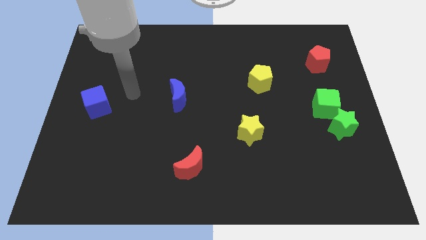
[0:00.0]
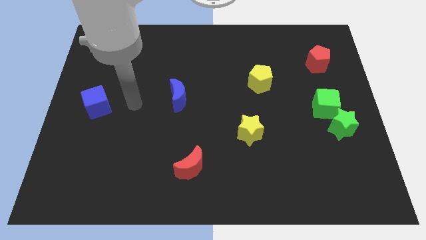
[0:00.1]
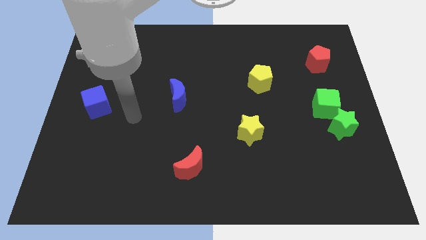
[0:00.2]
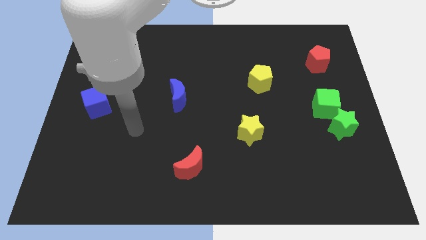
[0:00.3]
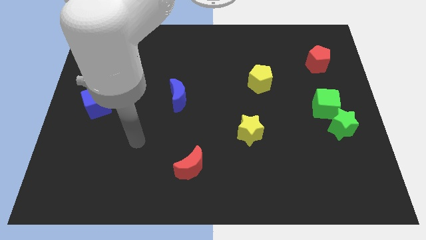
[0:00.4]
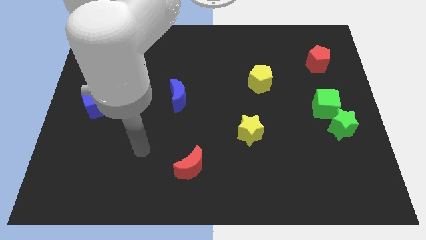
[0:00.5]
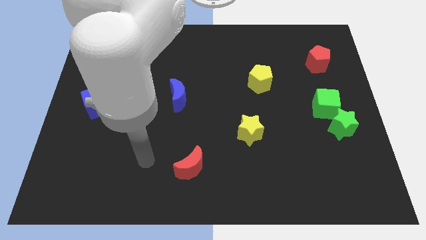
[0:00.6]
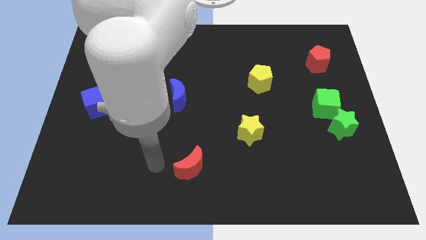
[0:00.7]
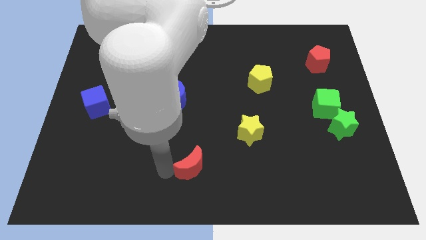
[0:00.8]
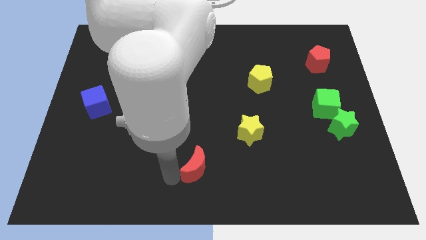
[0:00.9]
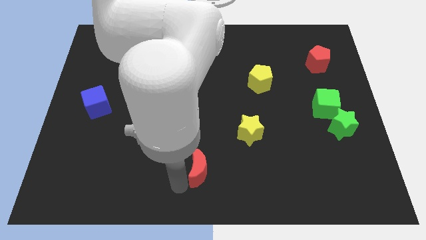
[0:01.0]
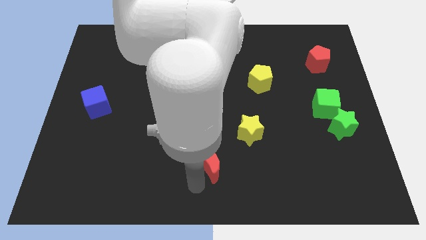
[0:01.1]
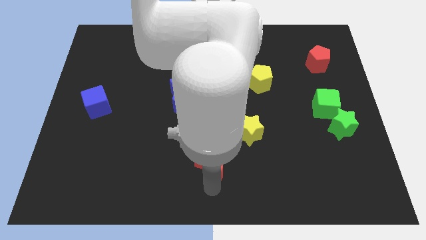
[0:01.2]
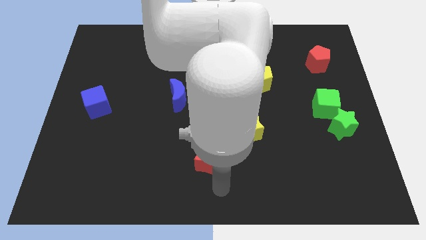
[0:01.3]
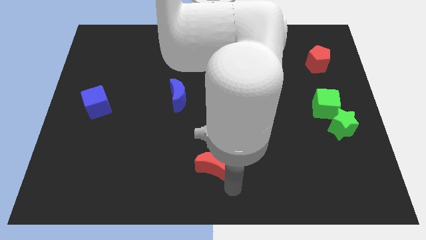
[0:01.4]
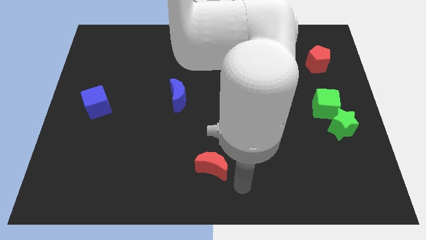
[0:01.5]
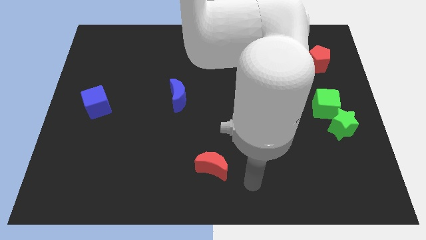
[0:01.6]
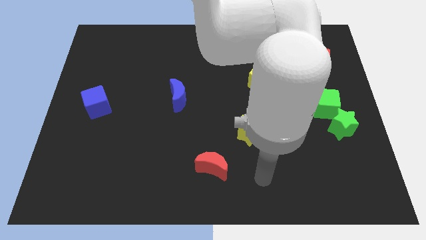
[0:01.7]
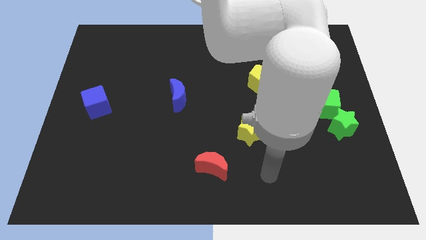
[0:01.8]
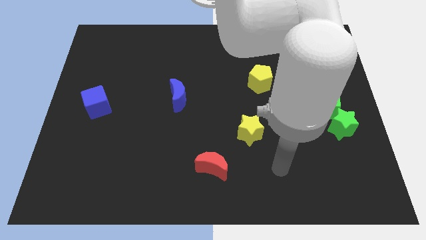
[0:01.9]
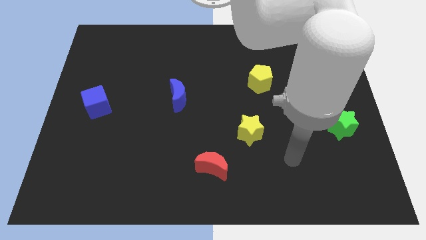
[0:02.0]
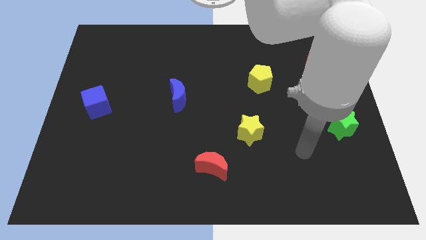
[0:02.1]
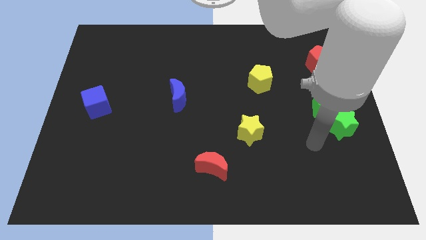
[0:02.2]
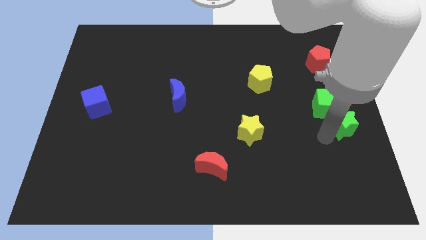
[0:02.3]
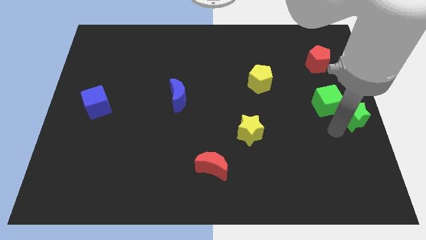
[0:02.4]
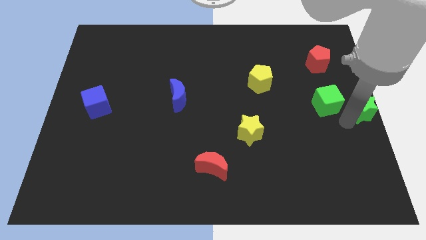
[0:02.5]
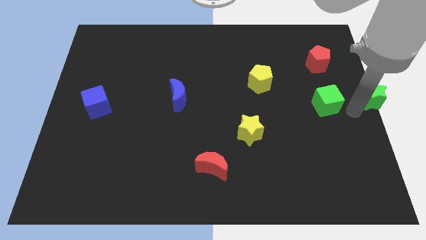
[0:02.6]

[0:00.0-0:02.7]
separate the green cube from the green star

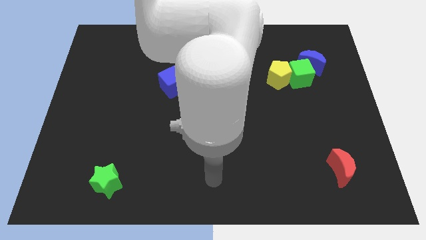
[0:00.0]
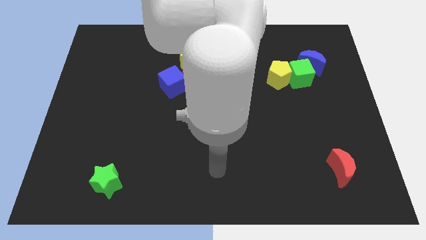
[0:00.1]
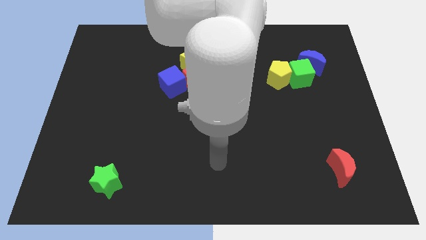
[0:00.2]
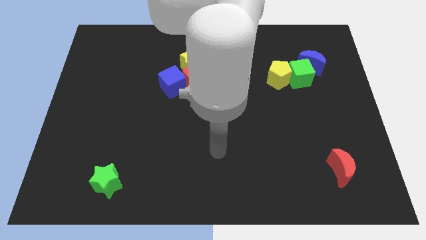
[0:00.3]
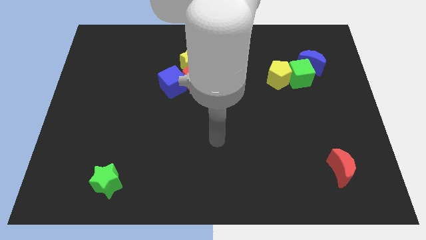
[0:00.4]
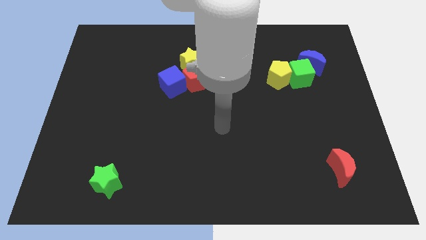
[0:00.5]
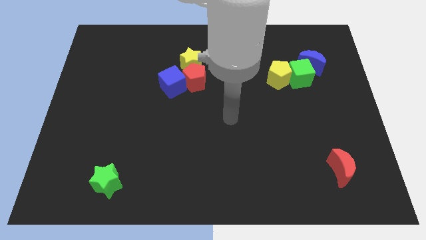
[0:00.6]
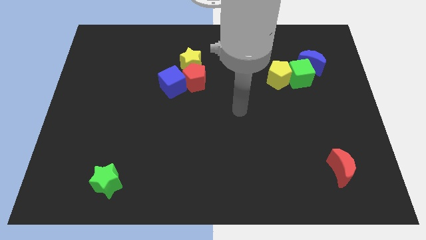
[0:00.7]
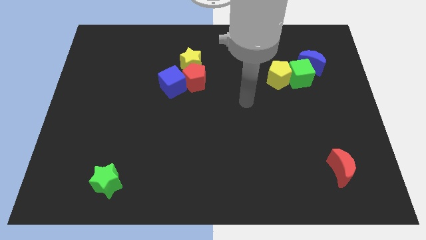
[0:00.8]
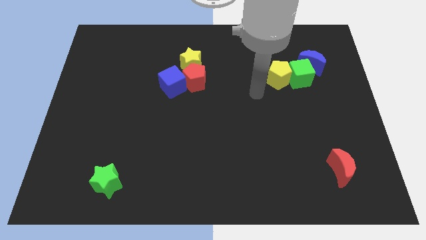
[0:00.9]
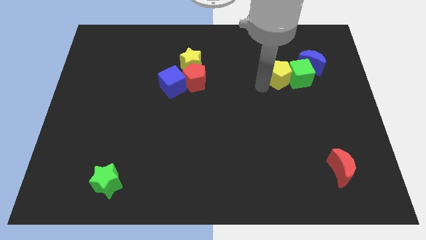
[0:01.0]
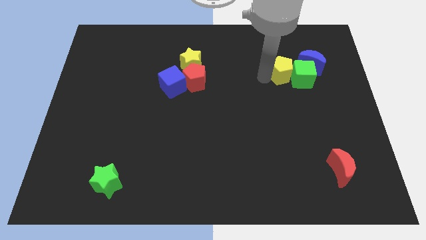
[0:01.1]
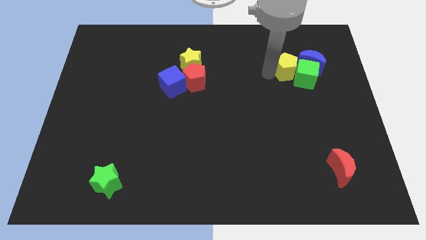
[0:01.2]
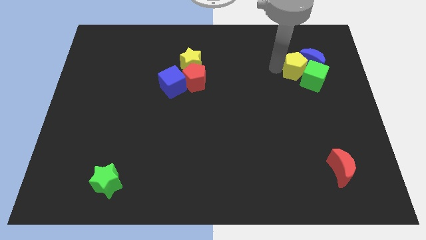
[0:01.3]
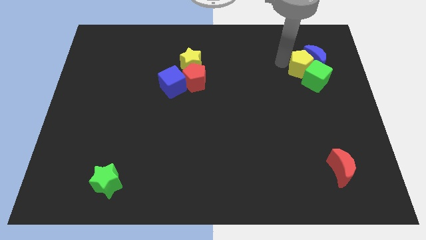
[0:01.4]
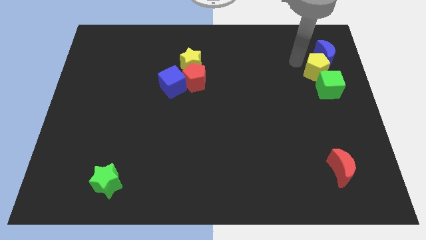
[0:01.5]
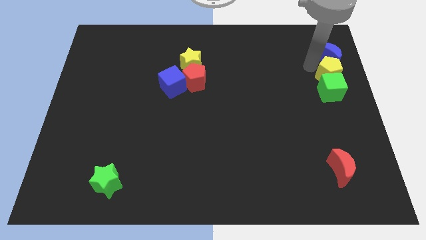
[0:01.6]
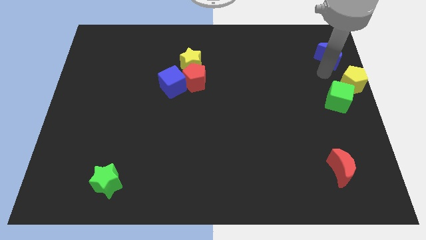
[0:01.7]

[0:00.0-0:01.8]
move the green cube away from the blue moon and yellow pentagon

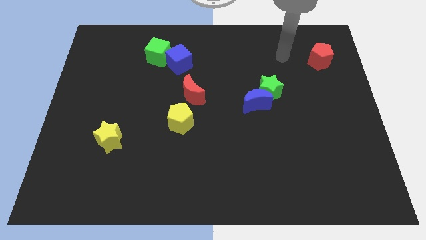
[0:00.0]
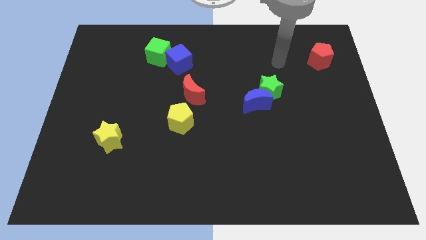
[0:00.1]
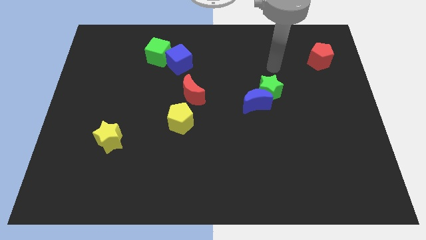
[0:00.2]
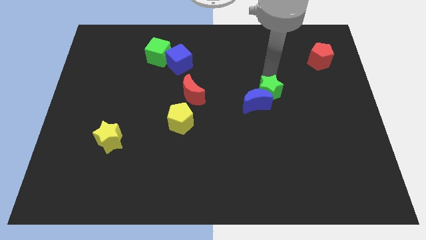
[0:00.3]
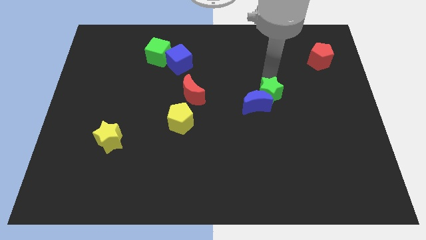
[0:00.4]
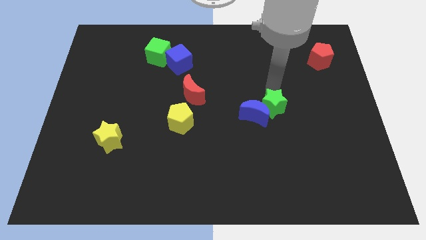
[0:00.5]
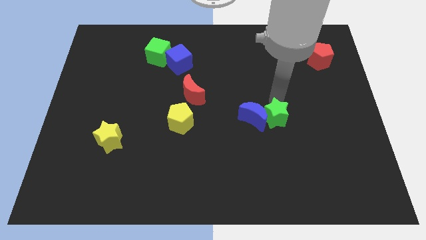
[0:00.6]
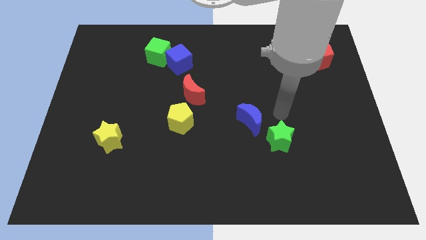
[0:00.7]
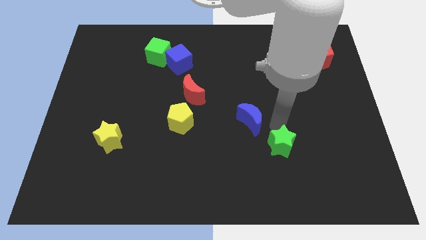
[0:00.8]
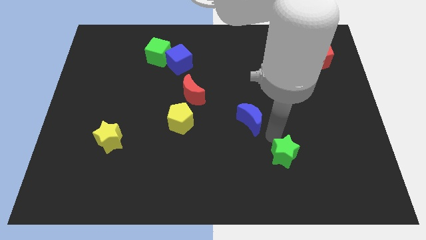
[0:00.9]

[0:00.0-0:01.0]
pull the blue moon apart from the green star

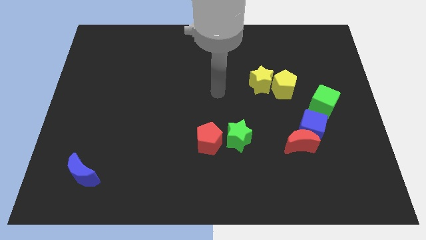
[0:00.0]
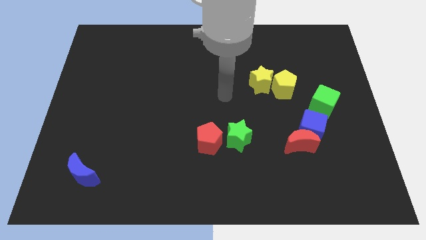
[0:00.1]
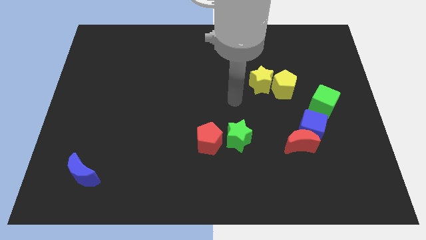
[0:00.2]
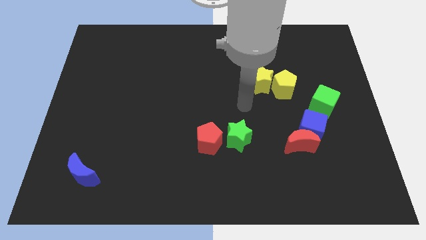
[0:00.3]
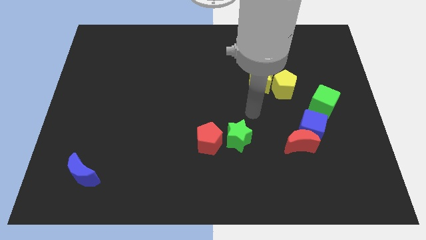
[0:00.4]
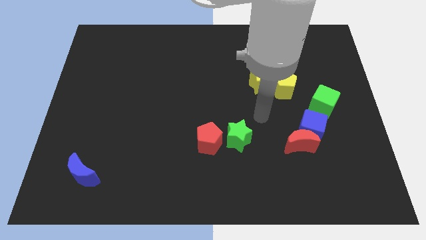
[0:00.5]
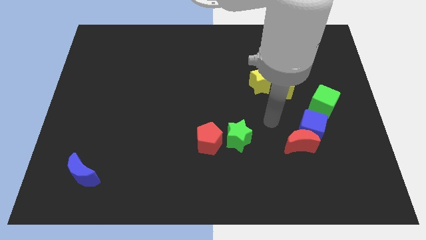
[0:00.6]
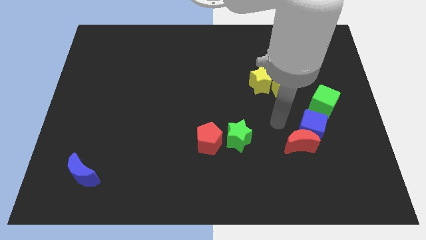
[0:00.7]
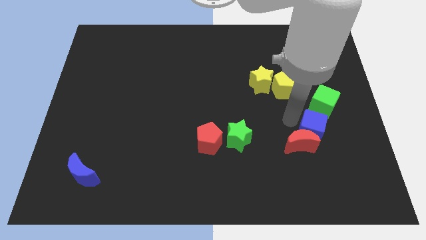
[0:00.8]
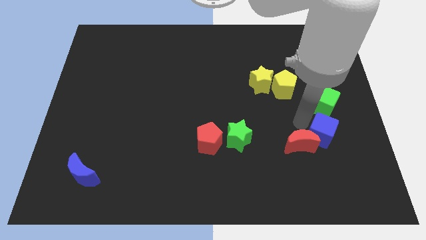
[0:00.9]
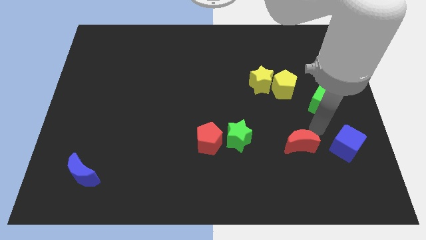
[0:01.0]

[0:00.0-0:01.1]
pull the red moon apart from the blue cube

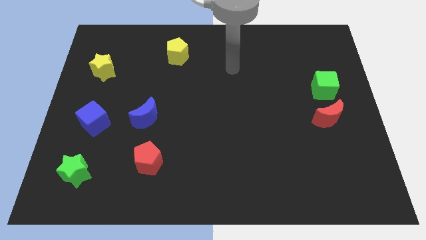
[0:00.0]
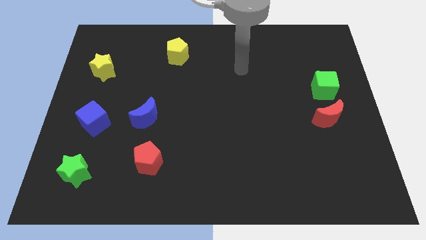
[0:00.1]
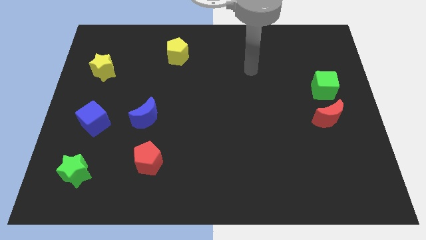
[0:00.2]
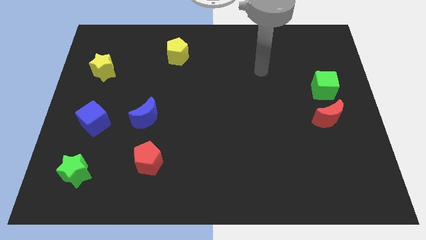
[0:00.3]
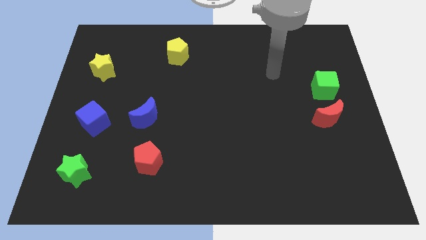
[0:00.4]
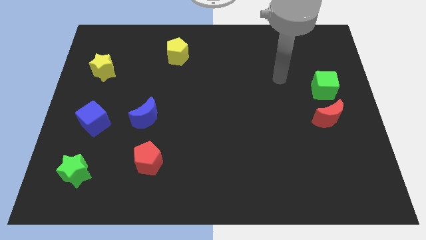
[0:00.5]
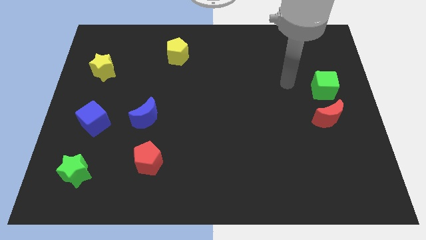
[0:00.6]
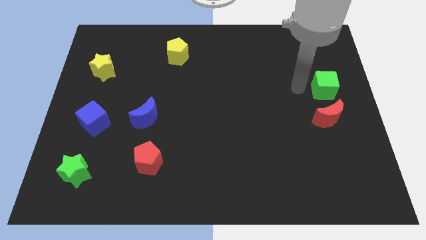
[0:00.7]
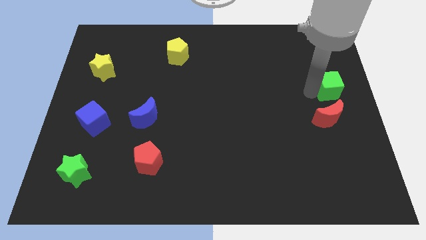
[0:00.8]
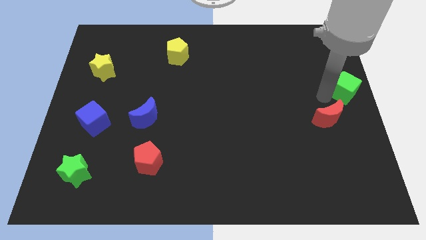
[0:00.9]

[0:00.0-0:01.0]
move the red moon away from the green cube

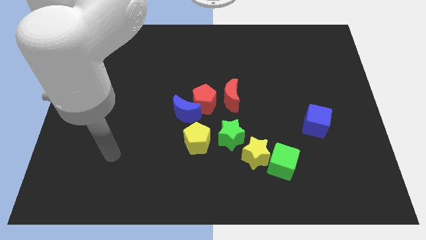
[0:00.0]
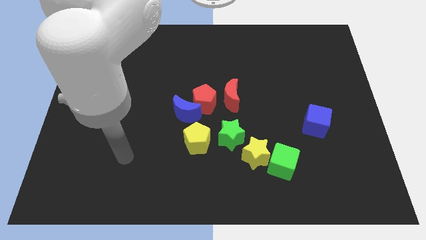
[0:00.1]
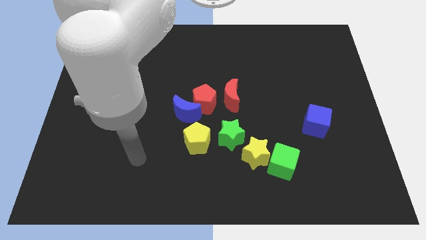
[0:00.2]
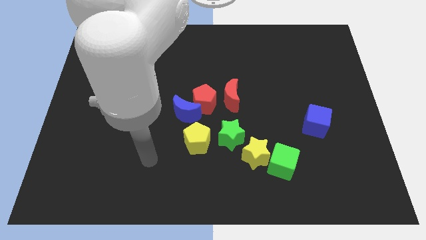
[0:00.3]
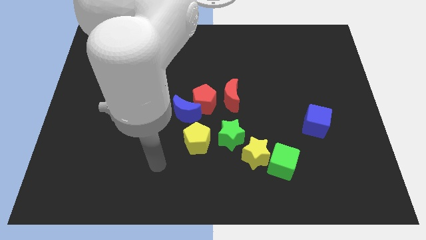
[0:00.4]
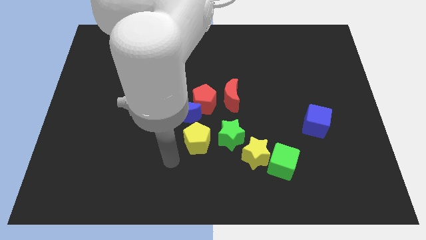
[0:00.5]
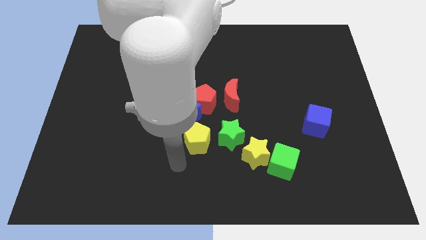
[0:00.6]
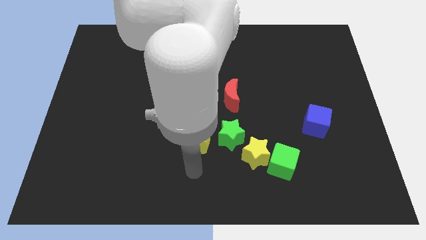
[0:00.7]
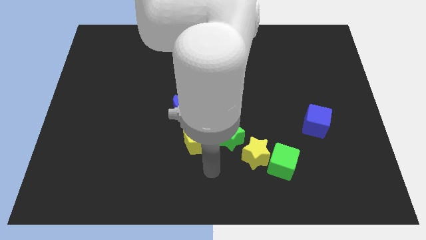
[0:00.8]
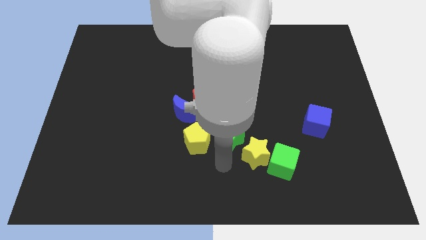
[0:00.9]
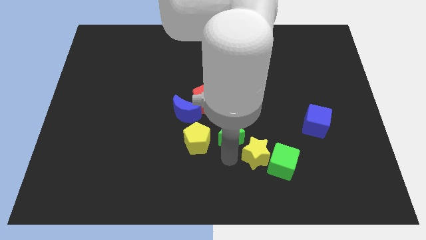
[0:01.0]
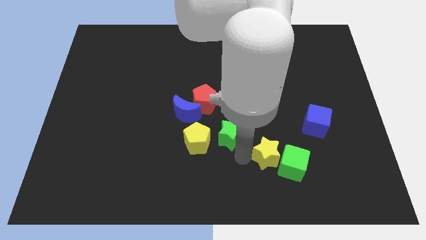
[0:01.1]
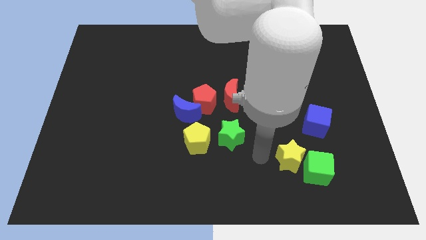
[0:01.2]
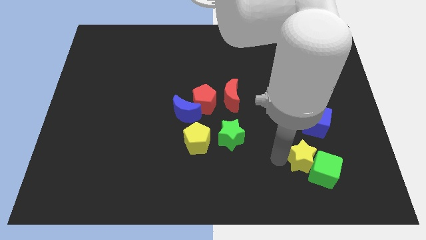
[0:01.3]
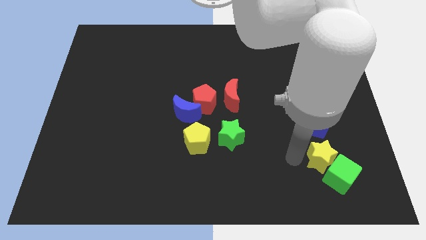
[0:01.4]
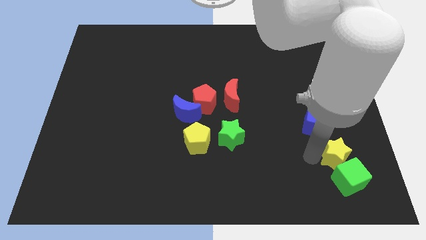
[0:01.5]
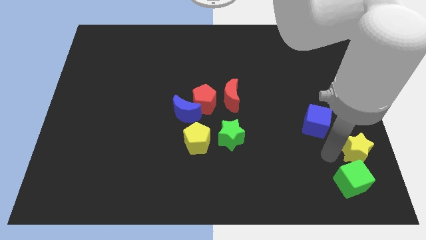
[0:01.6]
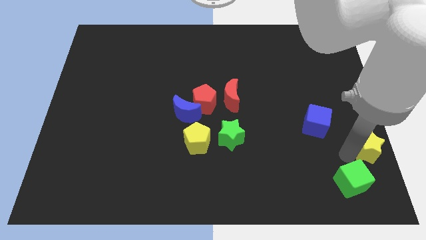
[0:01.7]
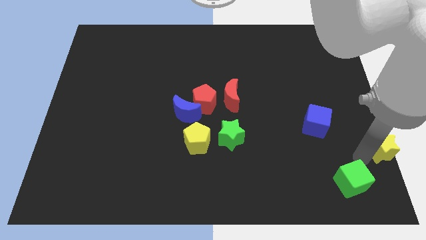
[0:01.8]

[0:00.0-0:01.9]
pull the green cube apart from the yellow star
